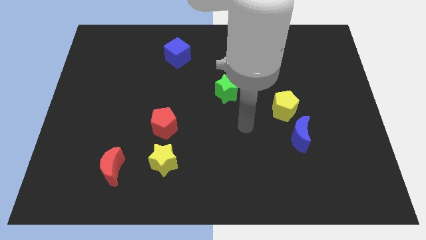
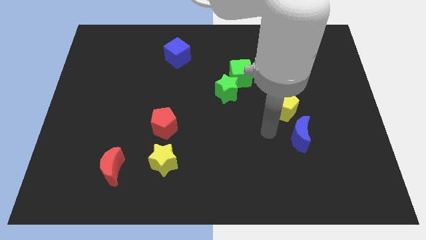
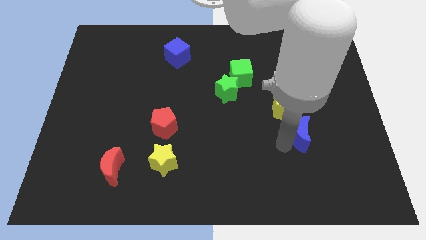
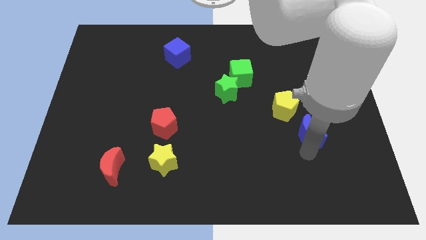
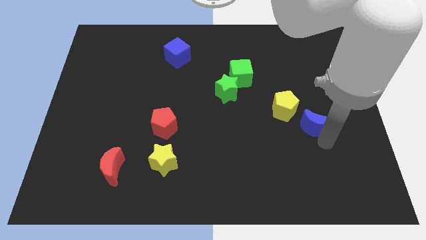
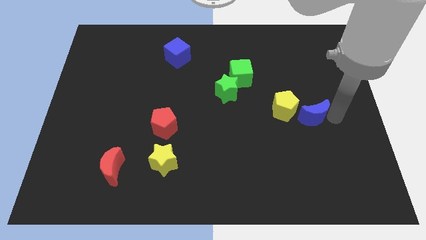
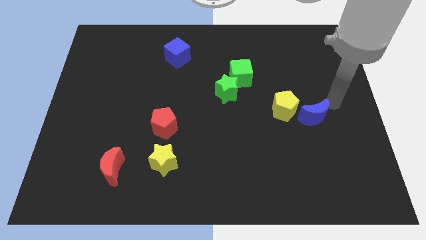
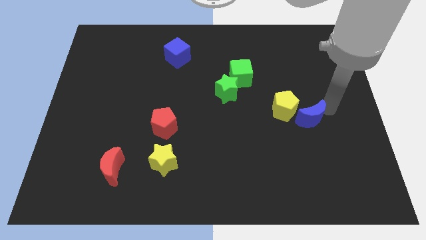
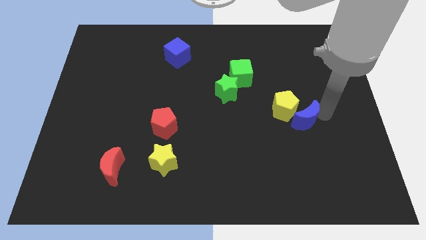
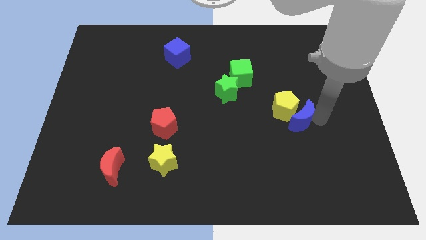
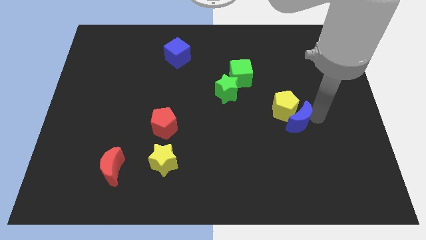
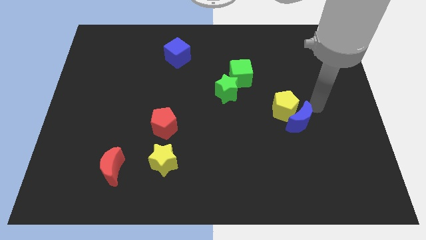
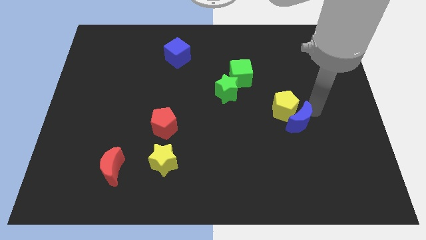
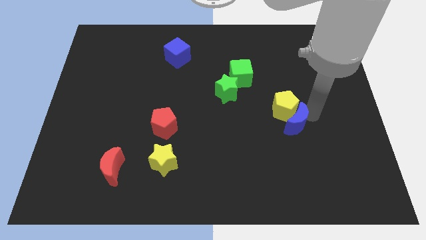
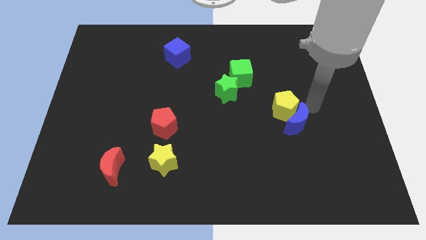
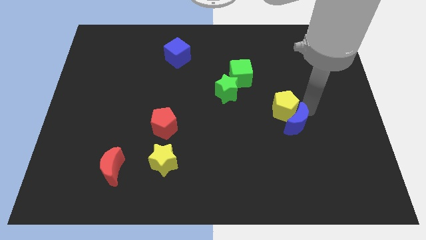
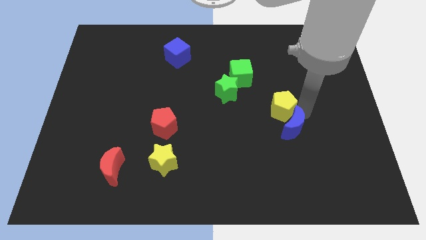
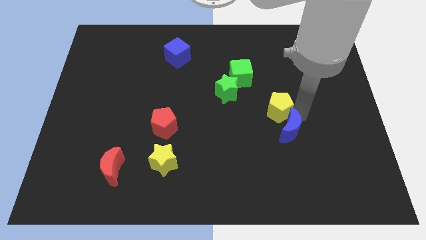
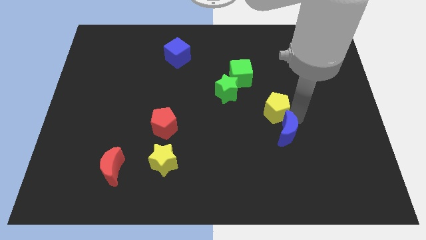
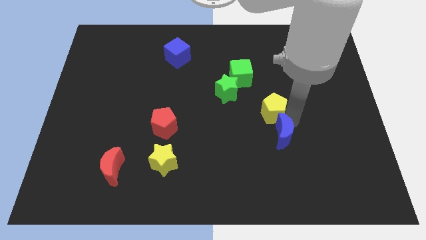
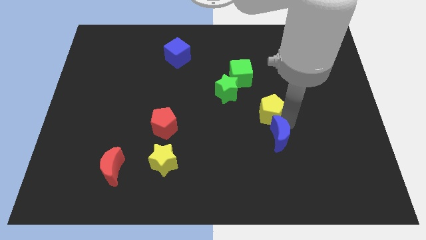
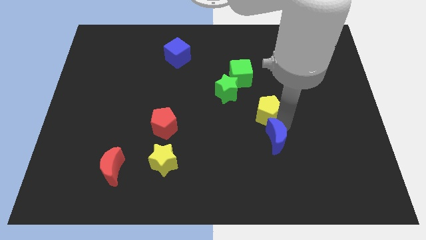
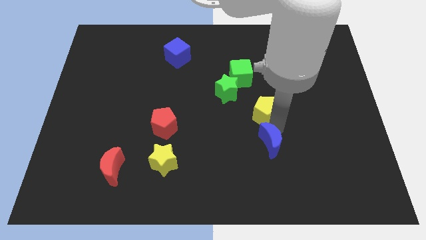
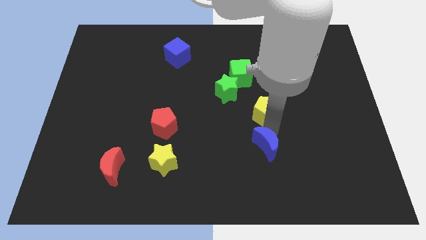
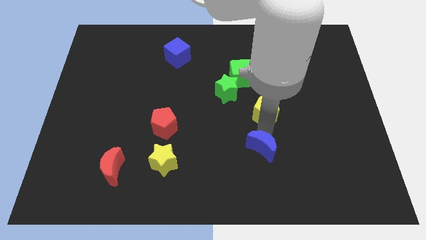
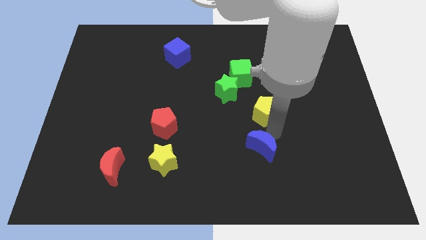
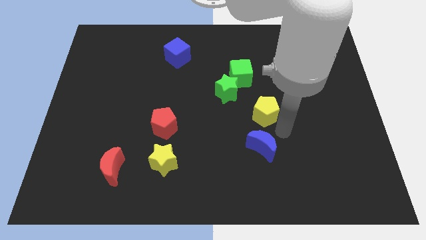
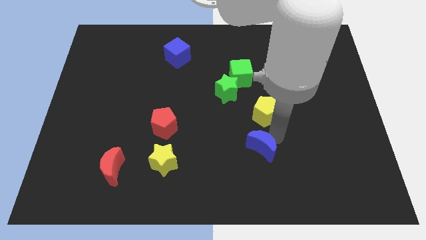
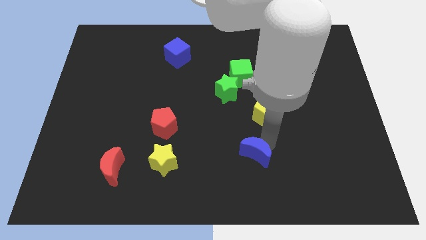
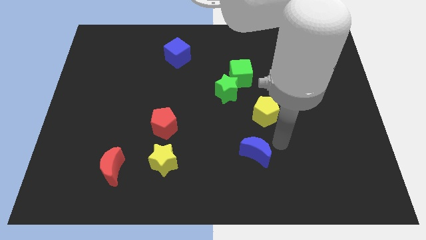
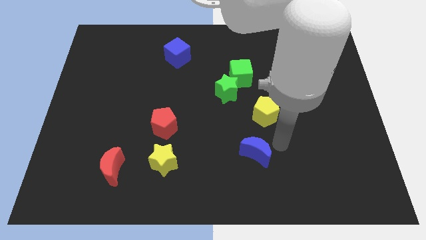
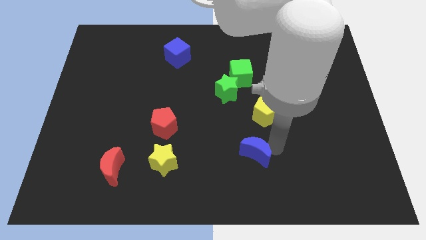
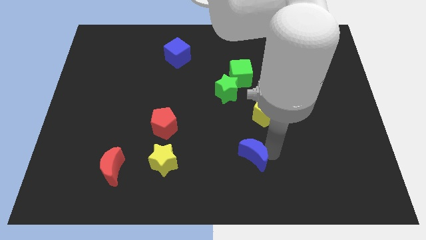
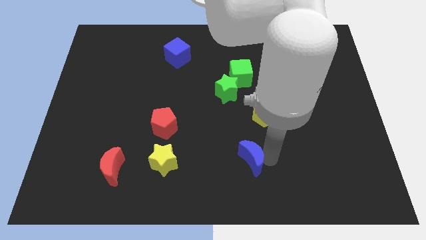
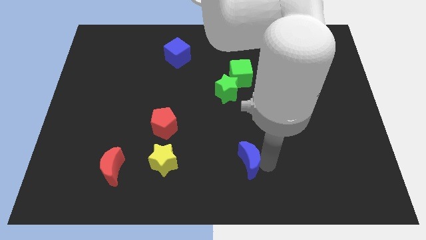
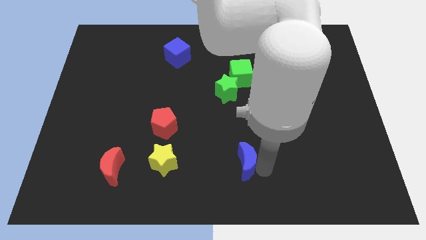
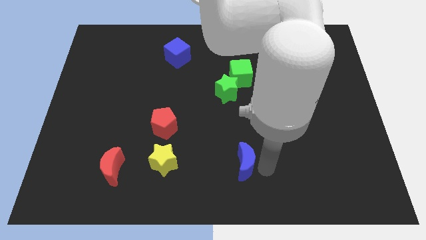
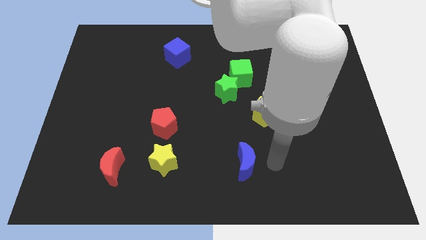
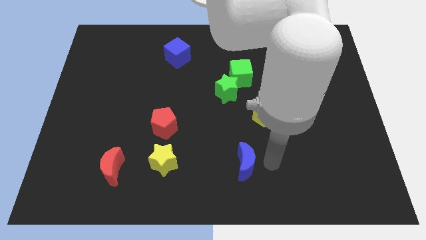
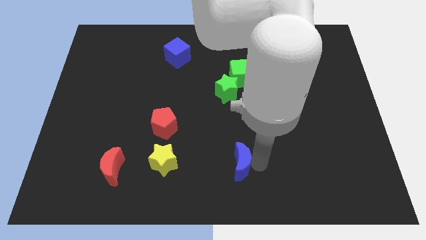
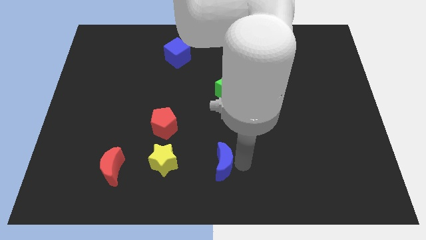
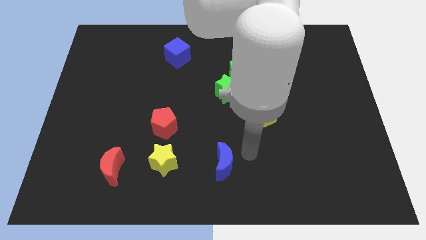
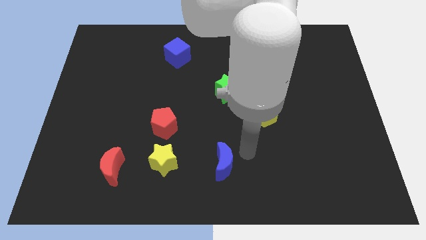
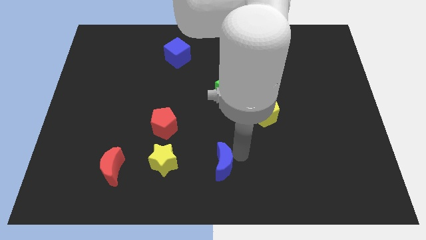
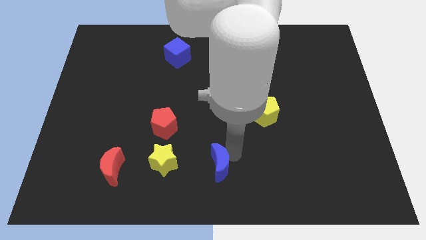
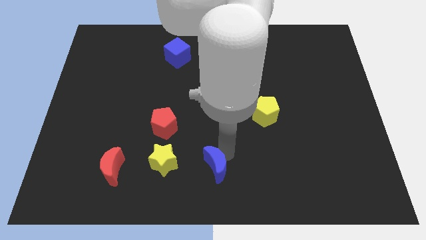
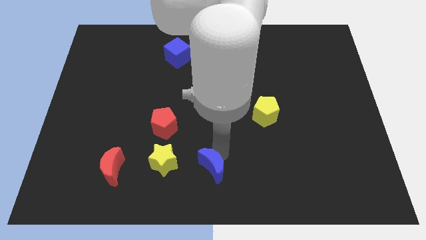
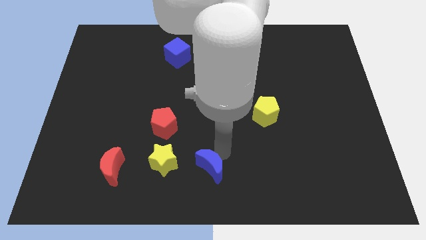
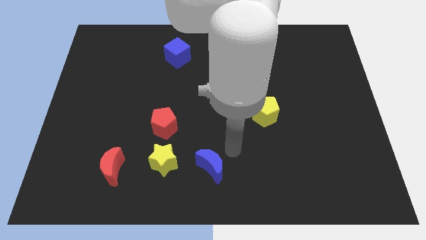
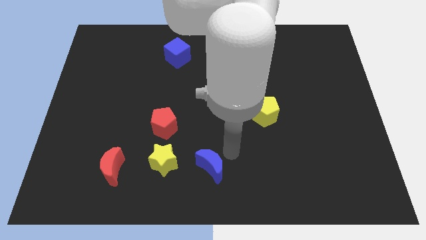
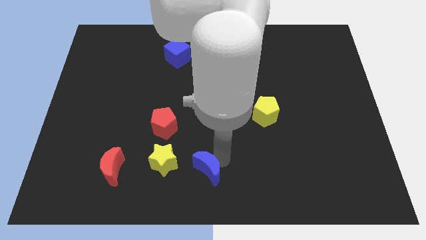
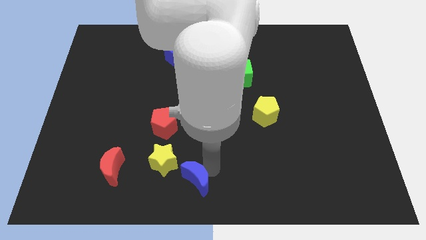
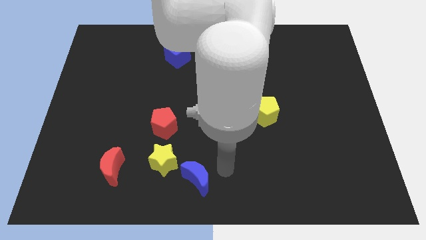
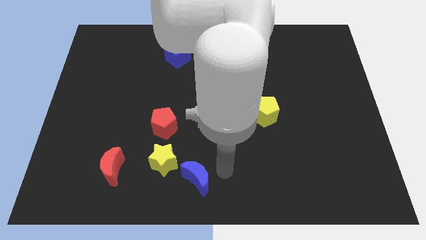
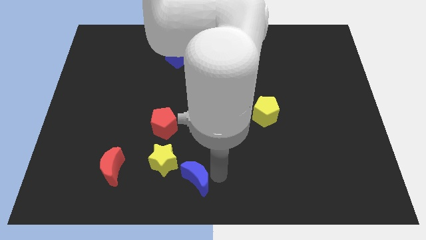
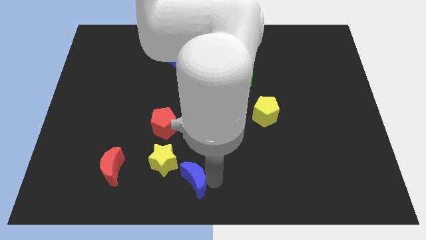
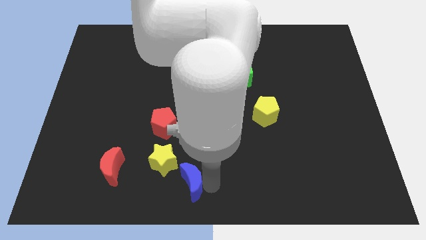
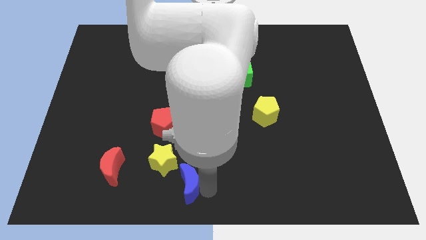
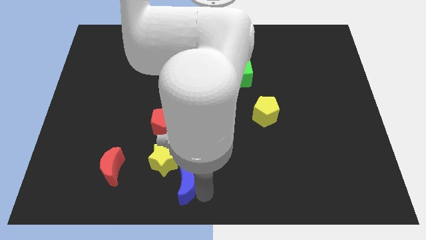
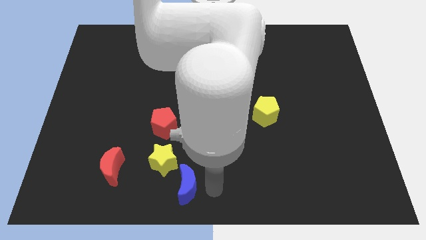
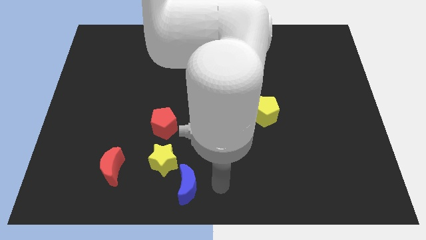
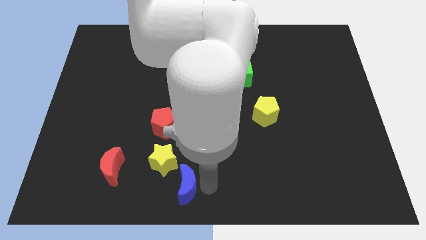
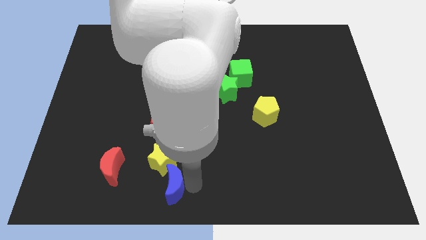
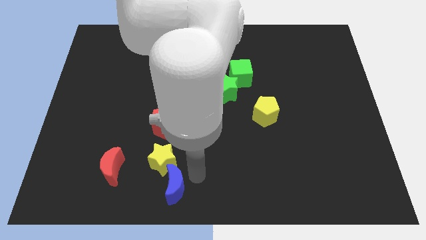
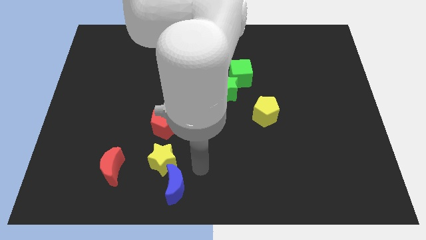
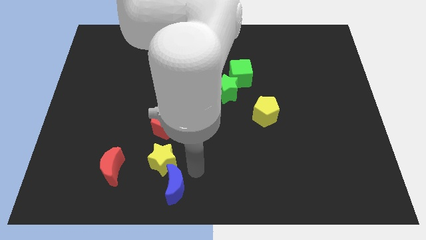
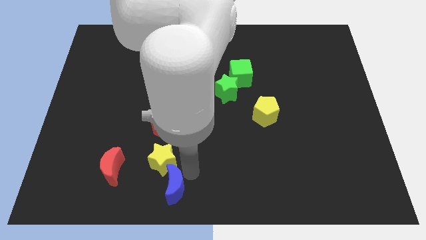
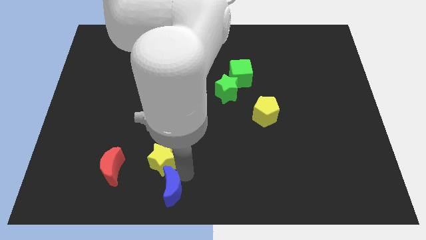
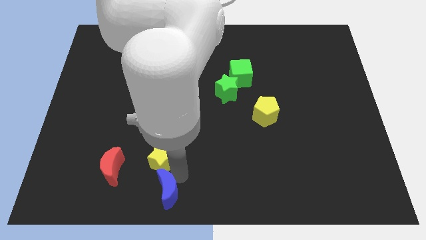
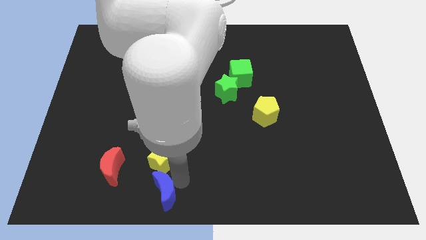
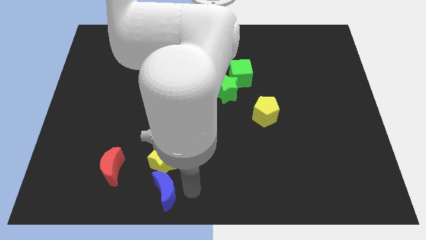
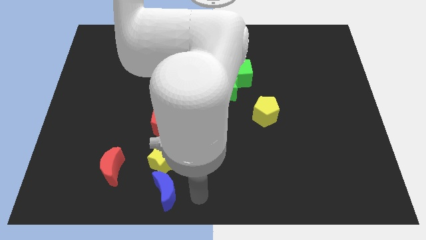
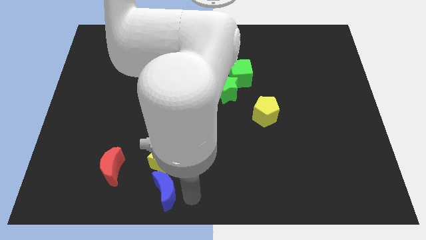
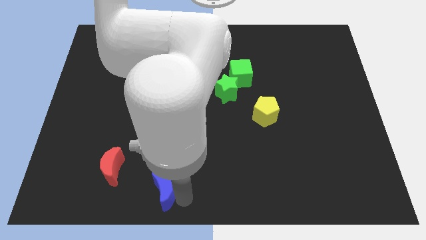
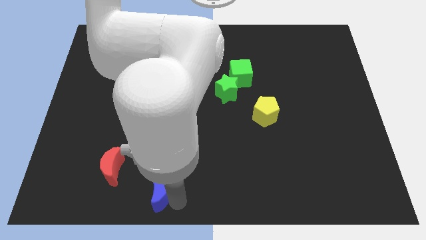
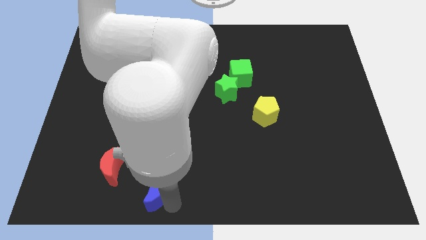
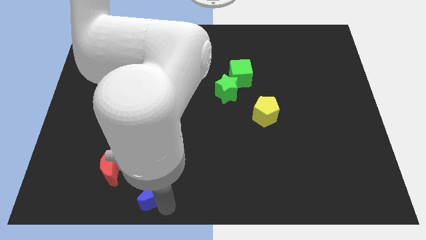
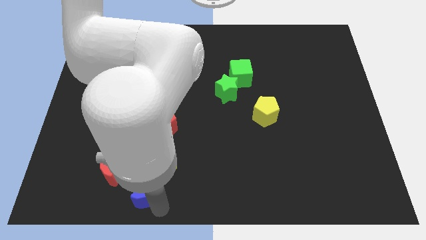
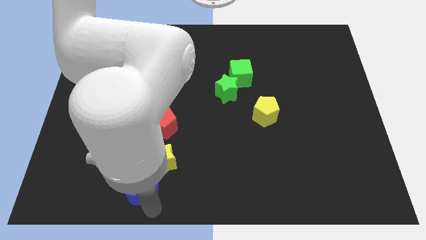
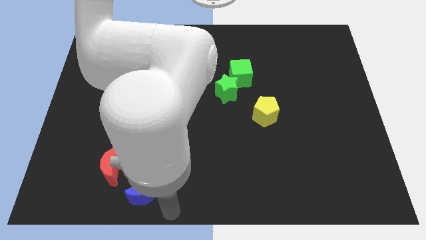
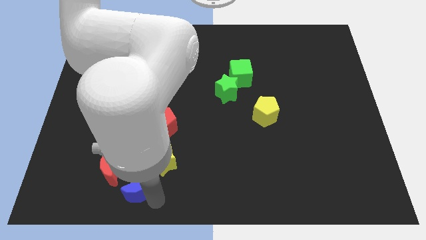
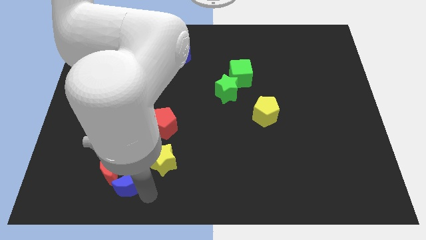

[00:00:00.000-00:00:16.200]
move the blue moon close to the red moon

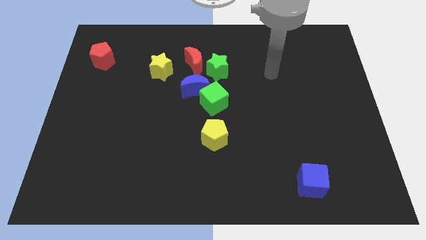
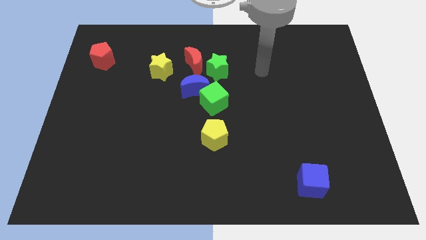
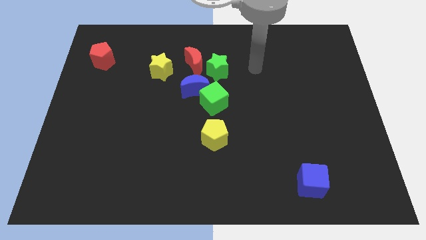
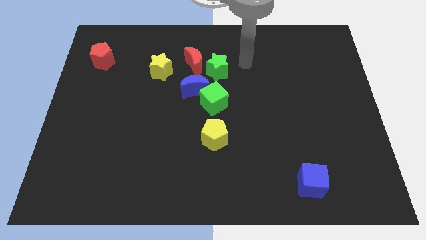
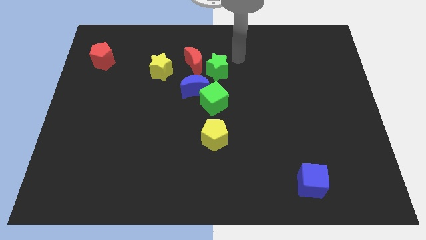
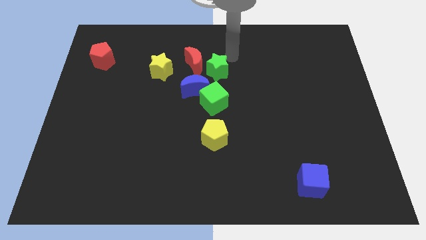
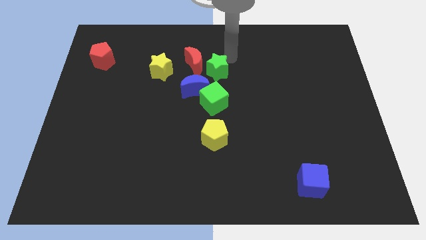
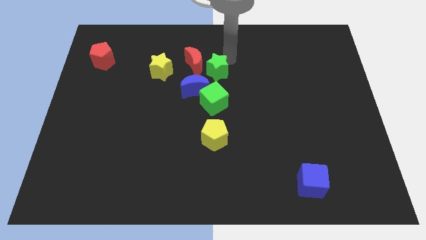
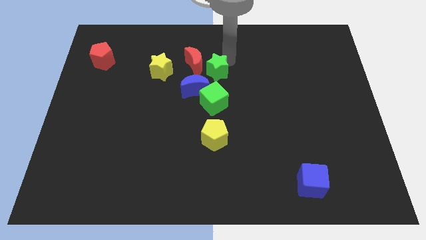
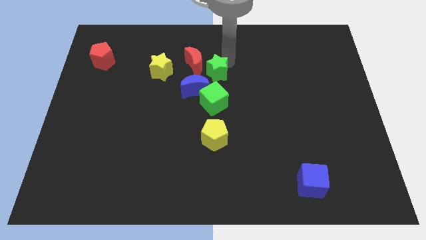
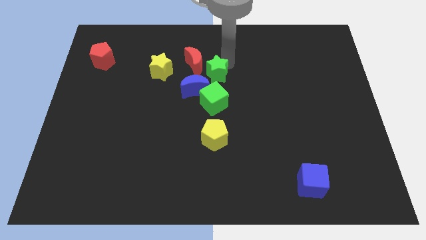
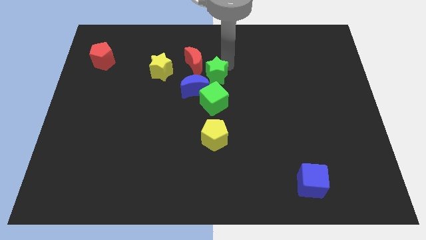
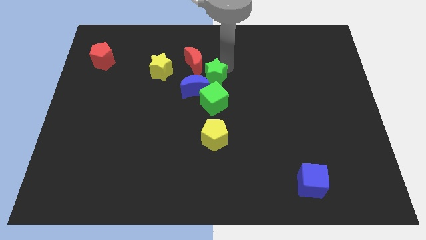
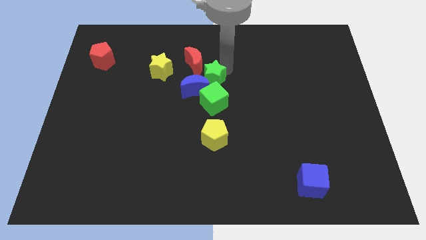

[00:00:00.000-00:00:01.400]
put the green star towards the blue moon
